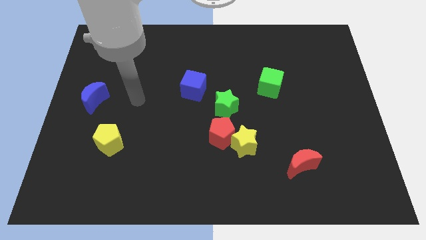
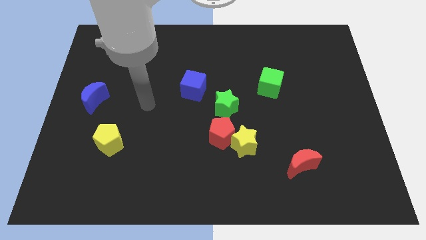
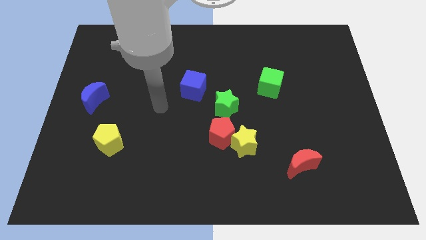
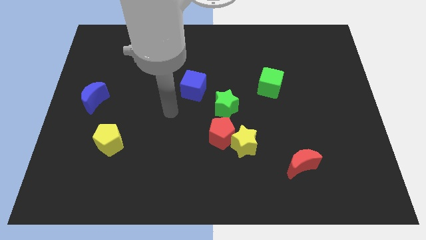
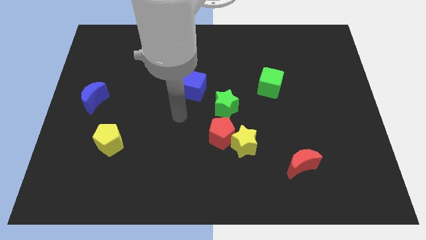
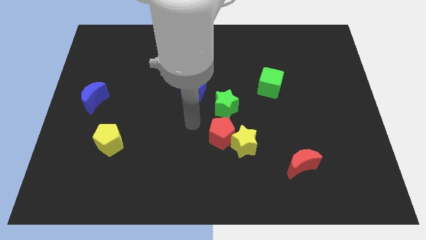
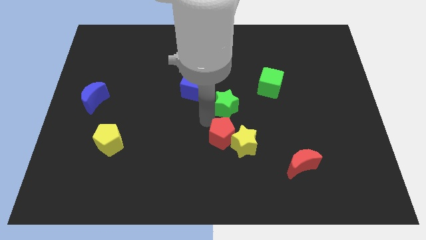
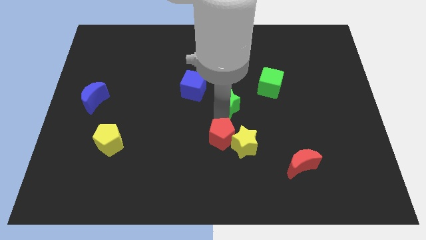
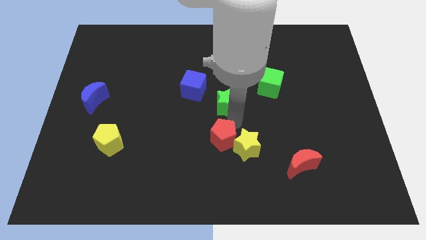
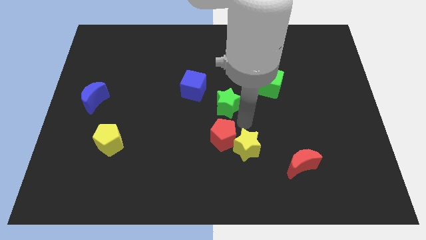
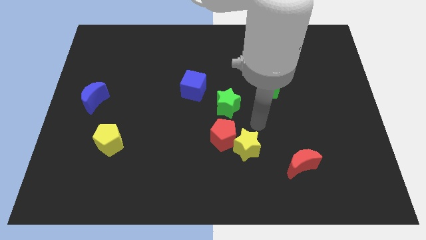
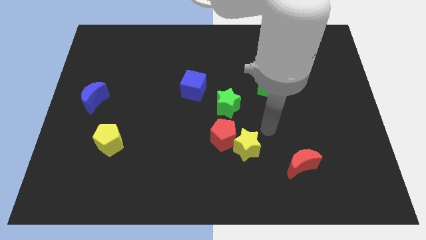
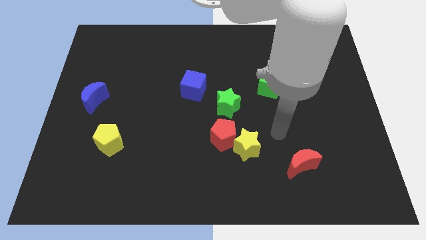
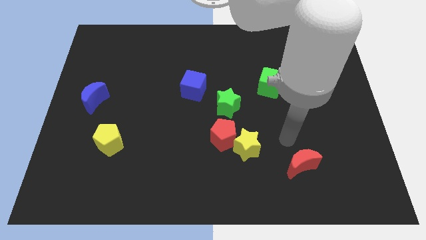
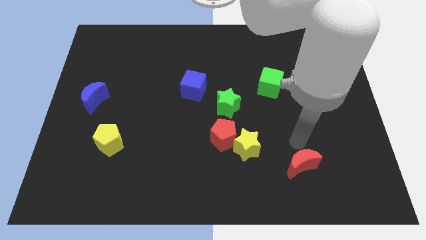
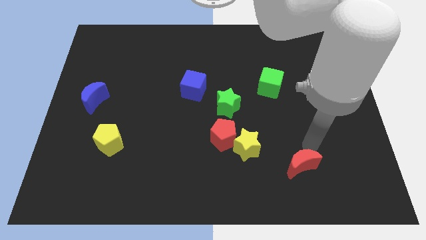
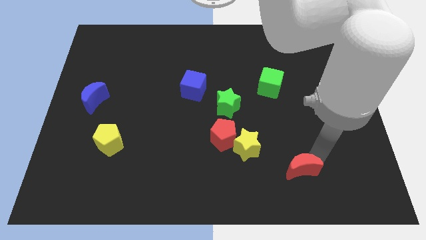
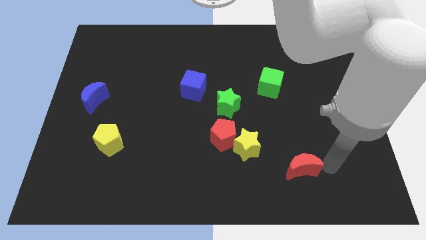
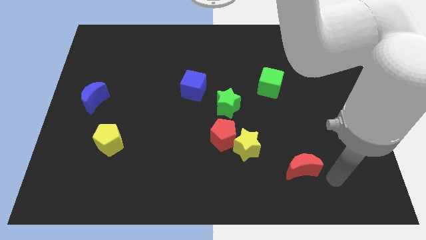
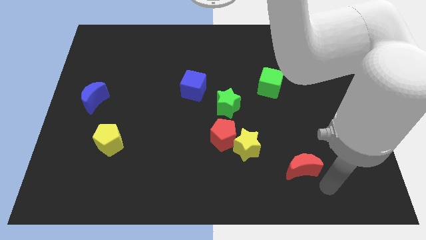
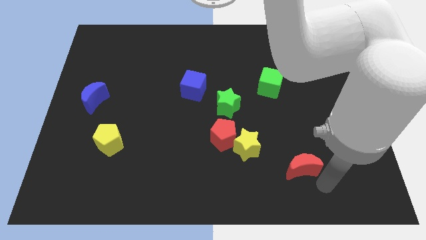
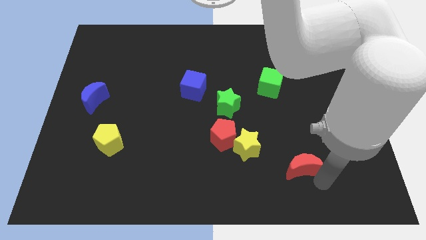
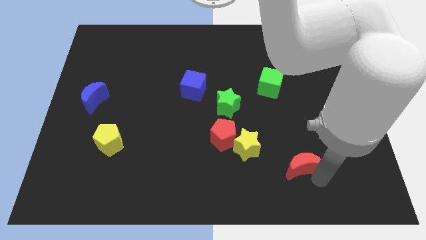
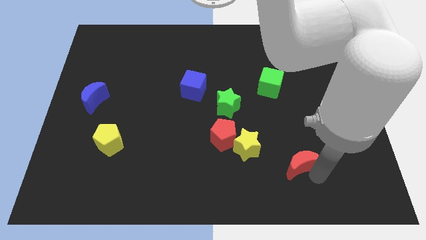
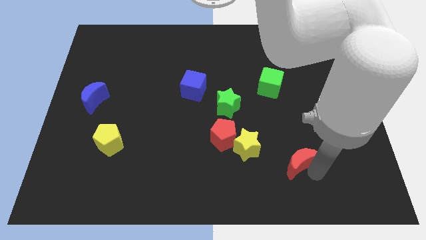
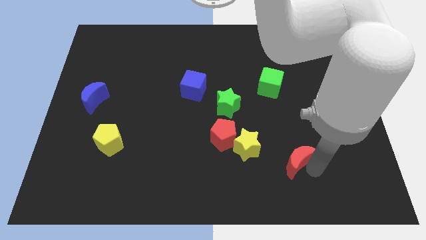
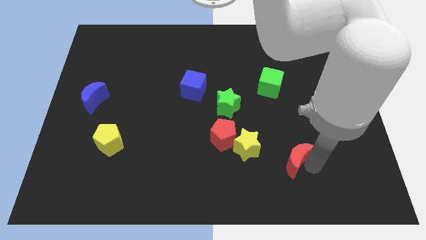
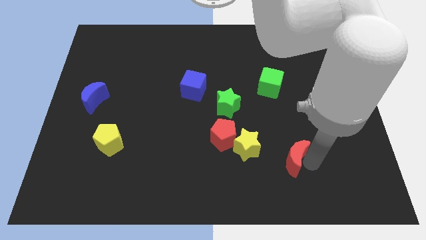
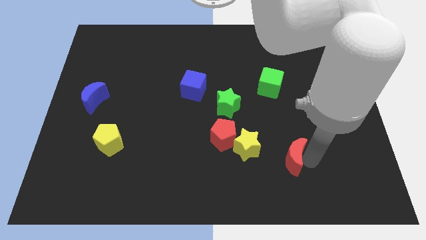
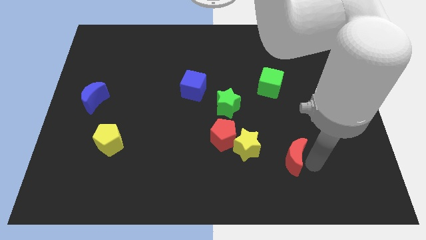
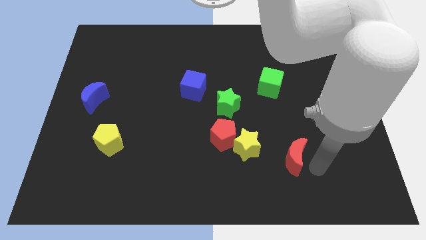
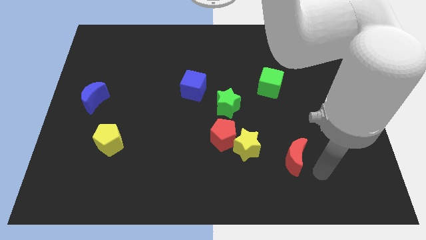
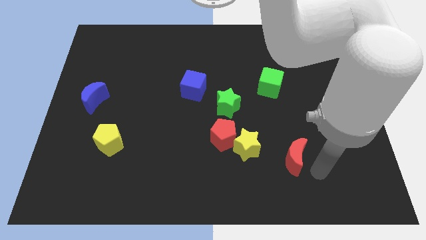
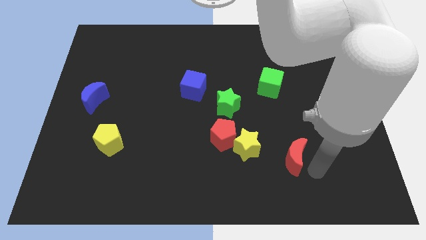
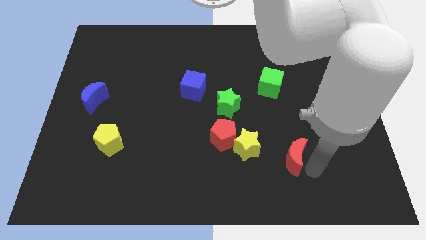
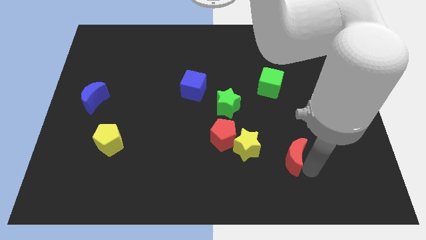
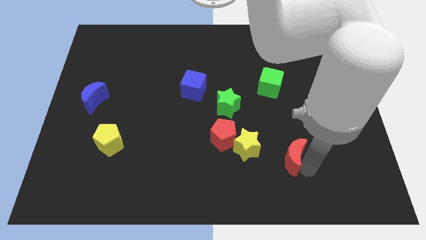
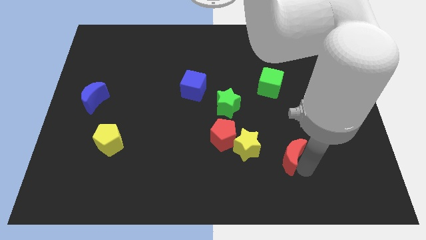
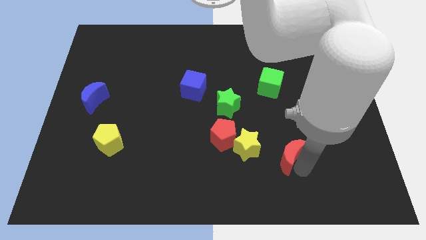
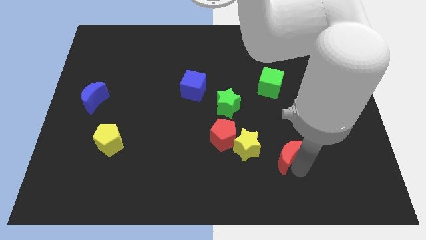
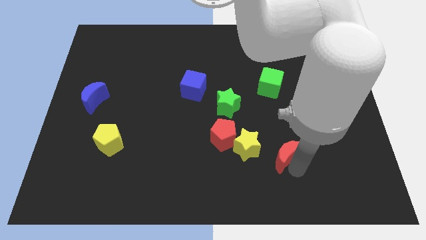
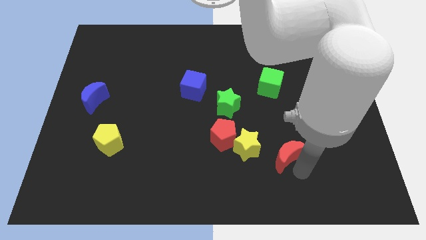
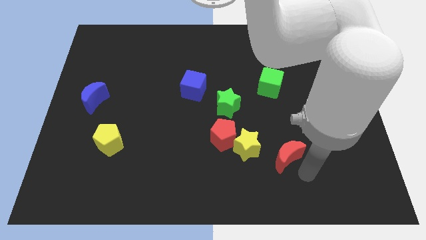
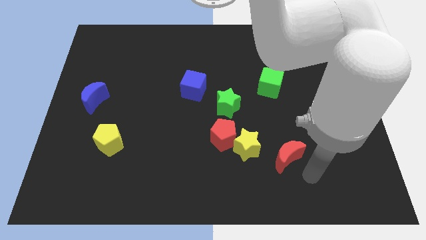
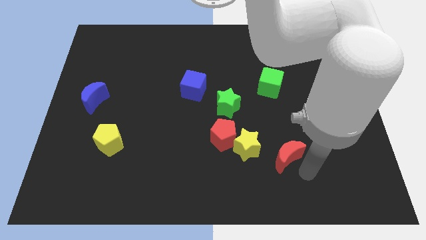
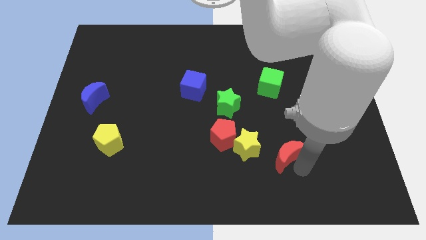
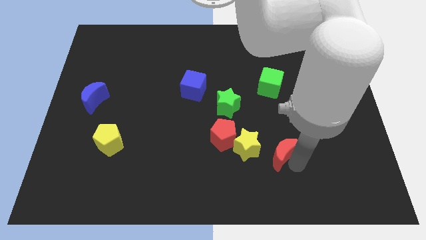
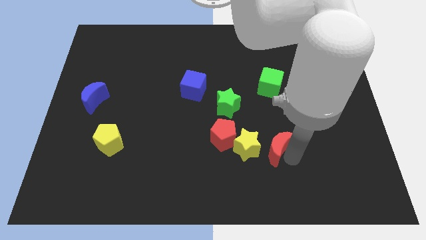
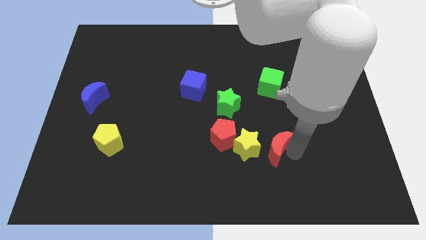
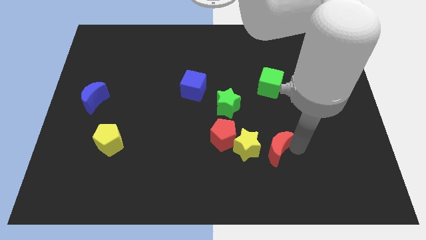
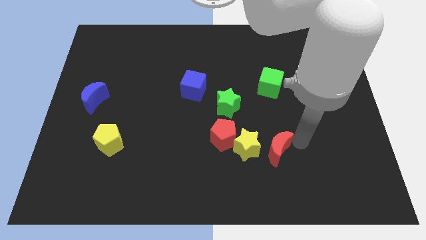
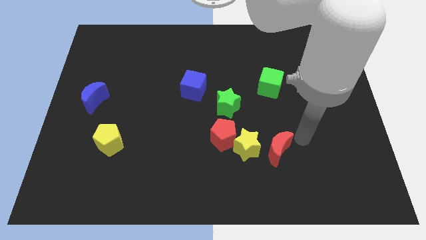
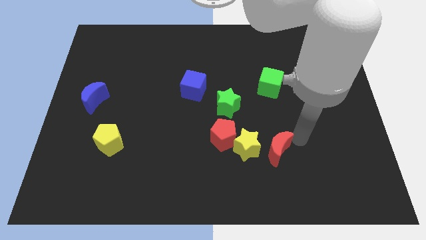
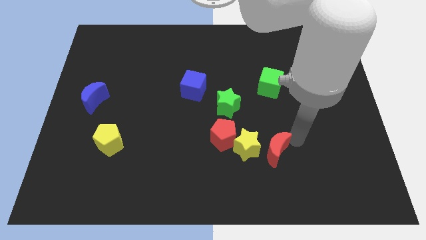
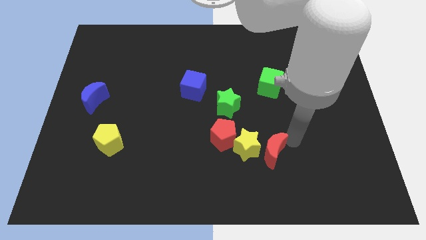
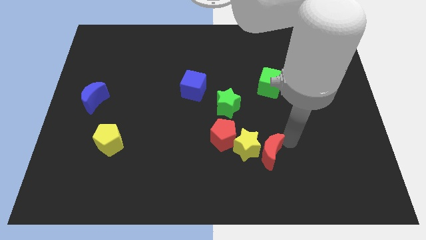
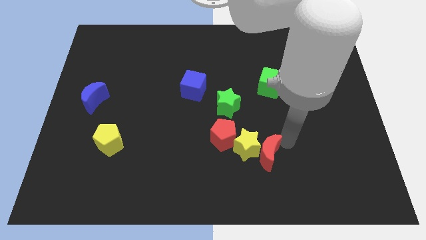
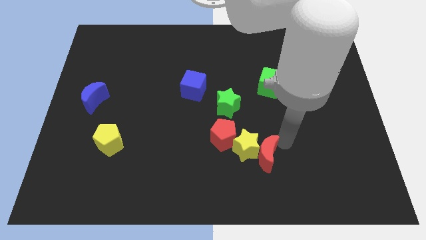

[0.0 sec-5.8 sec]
move the red moon slightly to the left

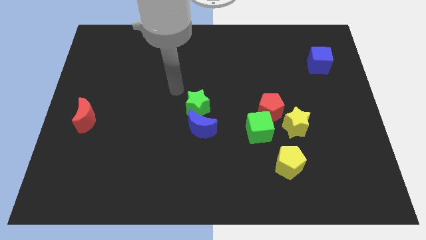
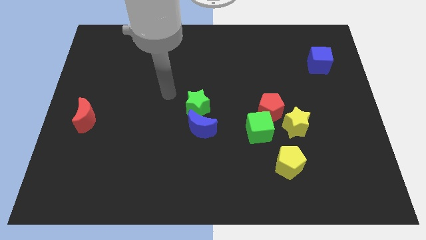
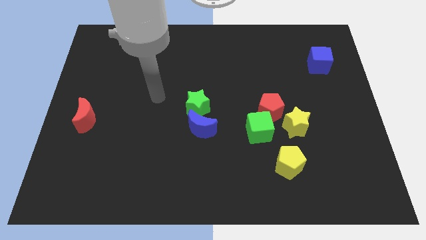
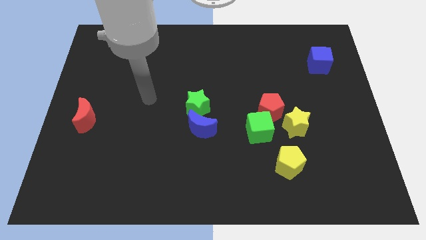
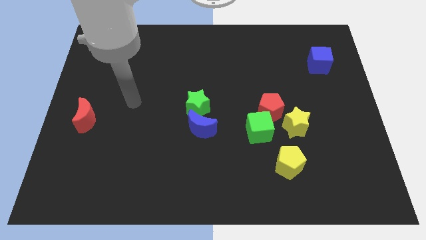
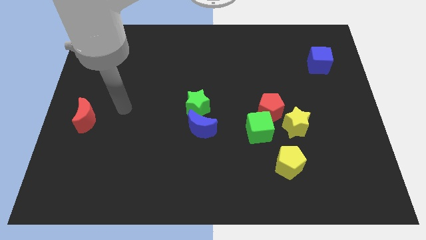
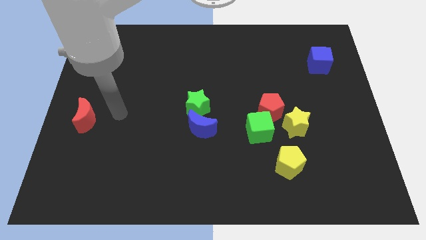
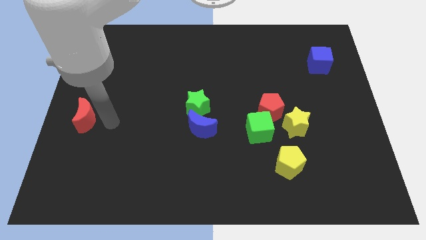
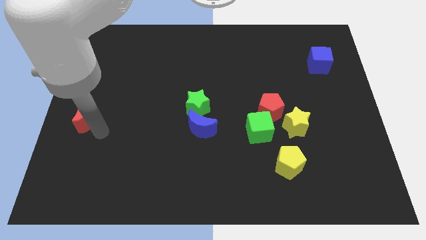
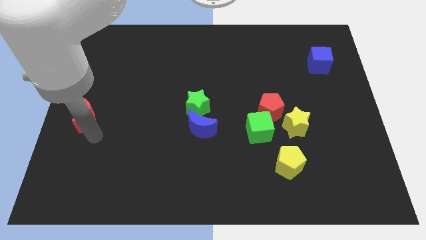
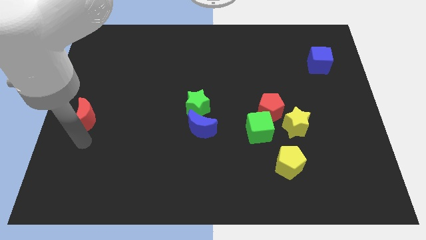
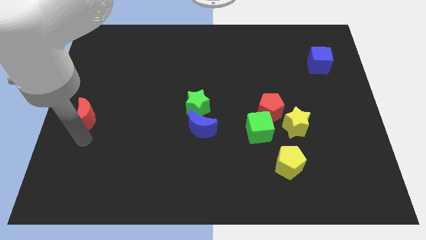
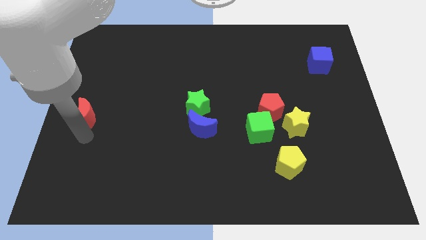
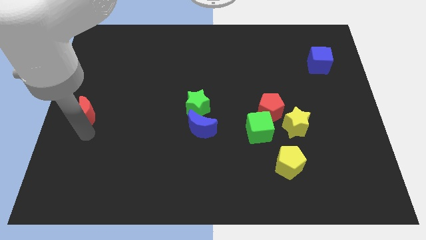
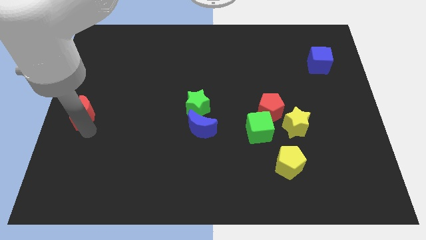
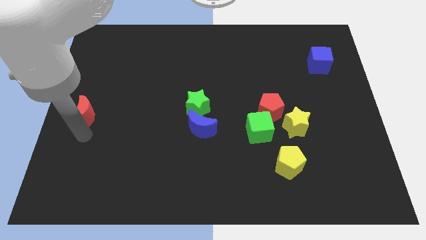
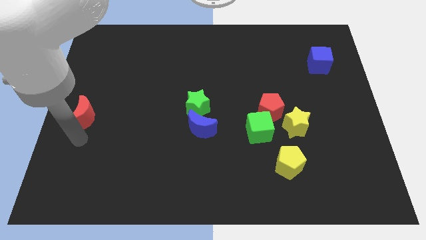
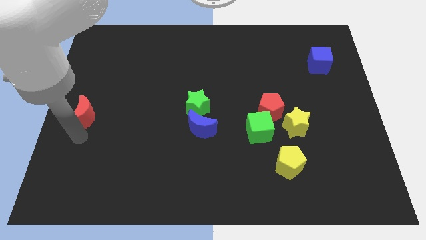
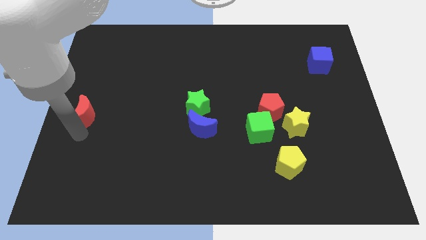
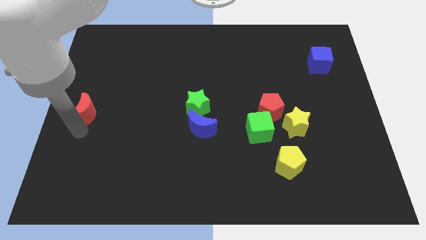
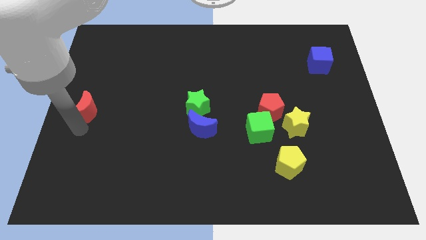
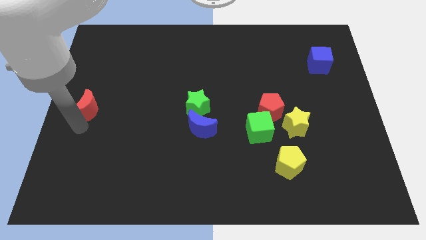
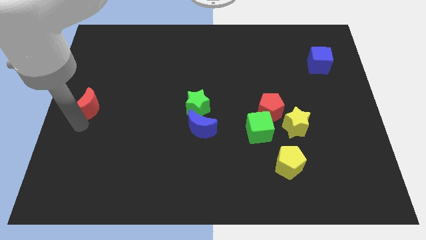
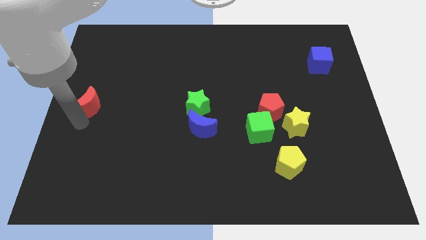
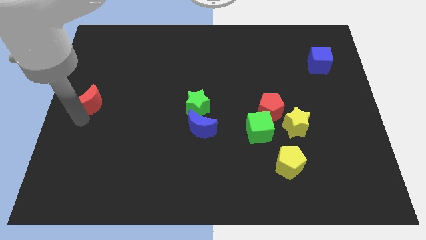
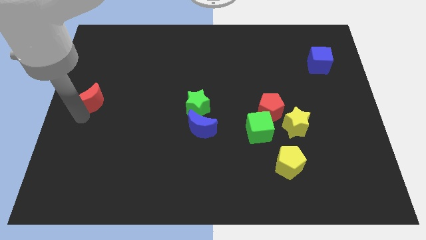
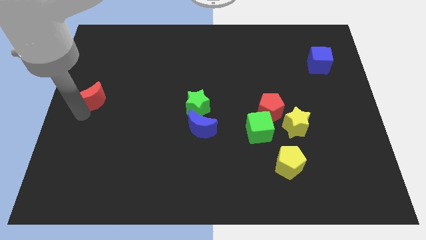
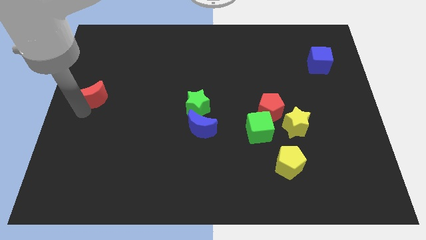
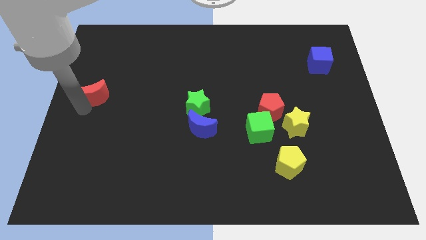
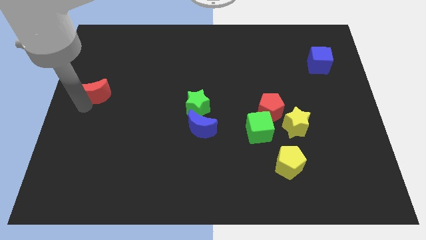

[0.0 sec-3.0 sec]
move the red moon a little up
